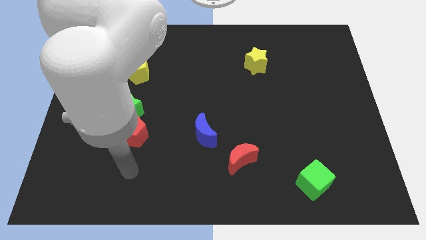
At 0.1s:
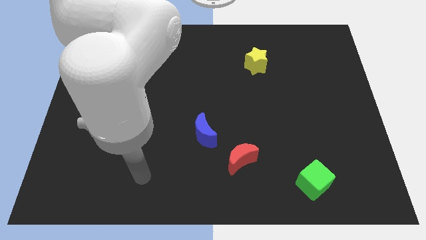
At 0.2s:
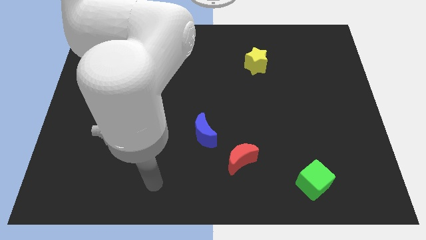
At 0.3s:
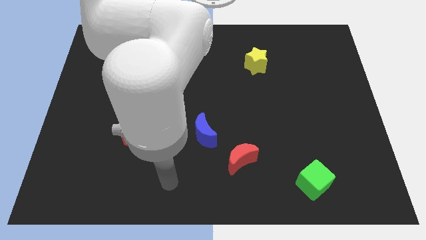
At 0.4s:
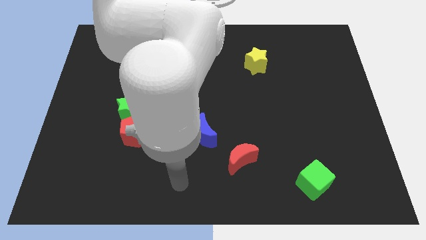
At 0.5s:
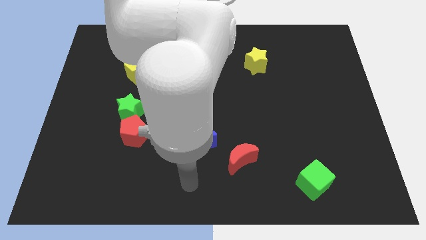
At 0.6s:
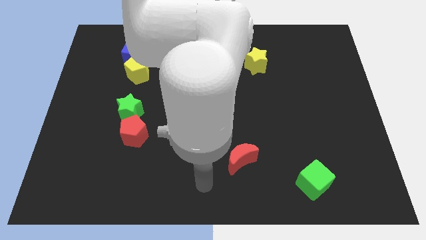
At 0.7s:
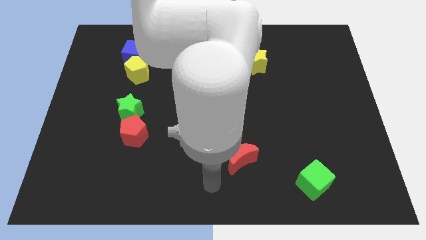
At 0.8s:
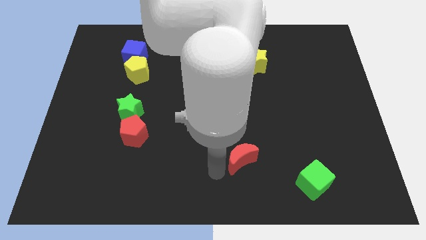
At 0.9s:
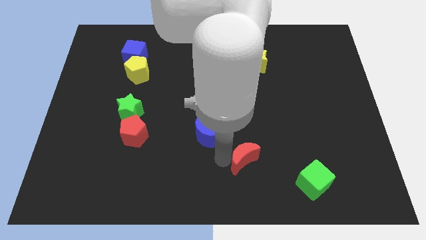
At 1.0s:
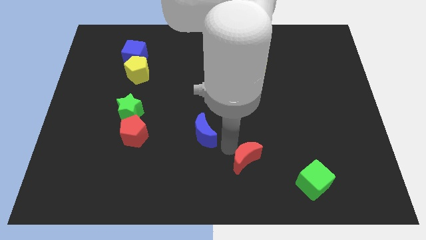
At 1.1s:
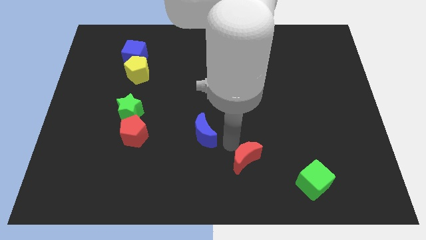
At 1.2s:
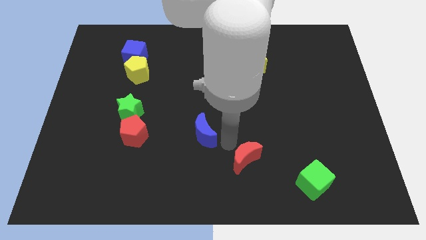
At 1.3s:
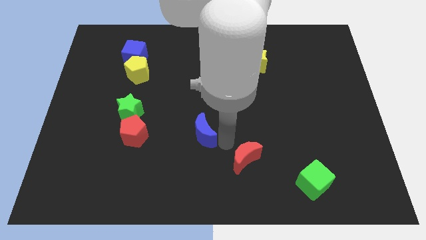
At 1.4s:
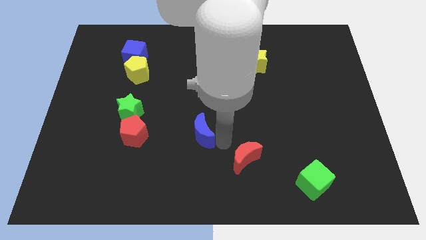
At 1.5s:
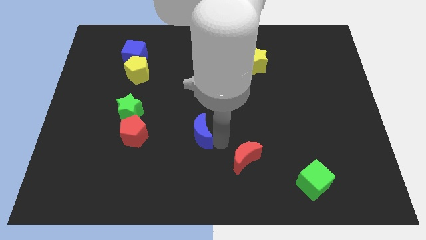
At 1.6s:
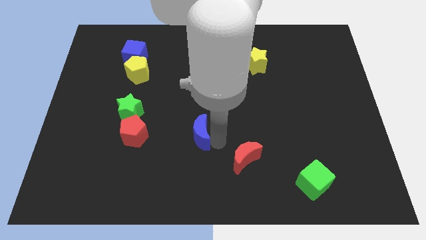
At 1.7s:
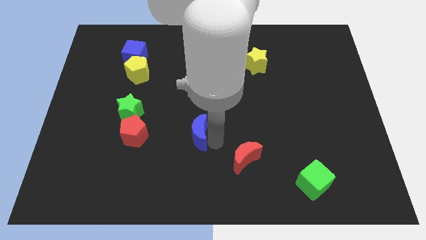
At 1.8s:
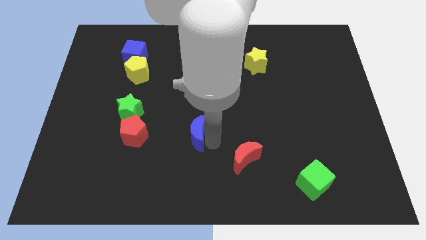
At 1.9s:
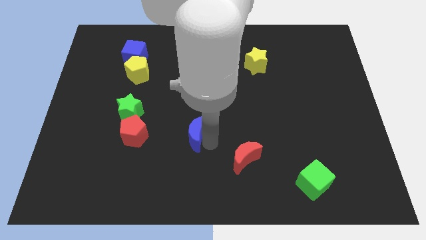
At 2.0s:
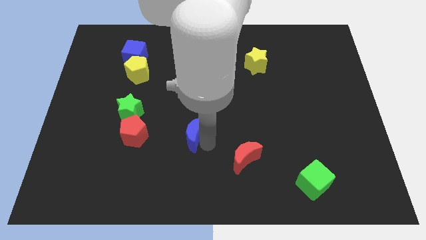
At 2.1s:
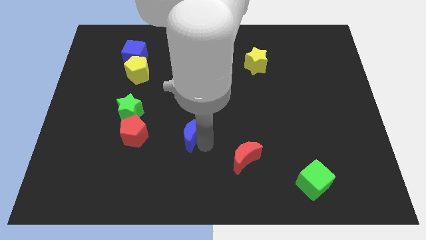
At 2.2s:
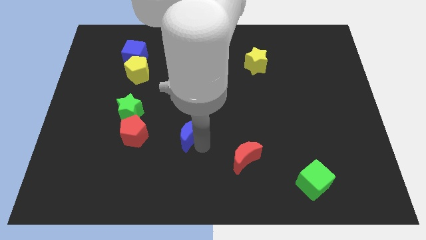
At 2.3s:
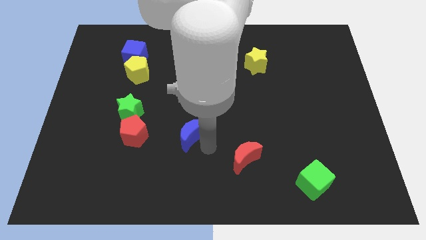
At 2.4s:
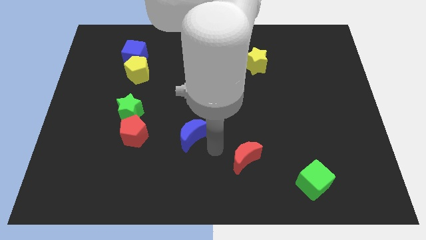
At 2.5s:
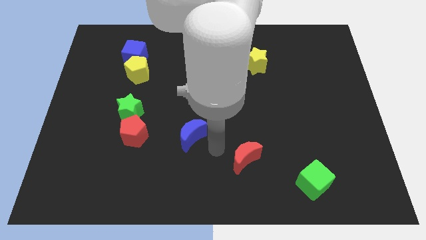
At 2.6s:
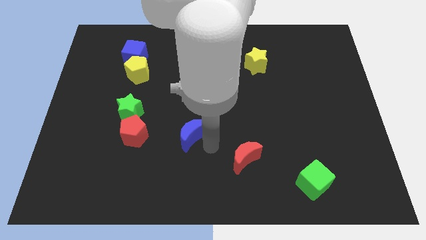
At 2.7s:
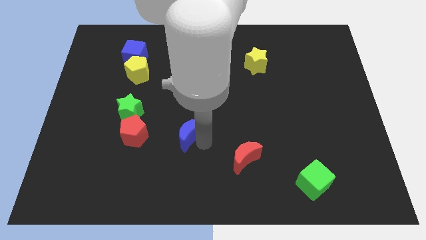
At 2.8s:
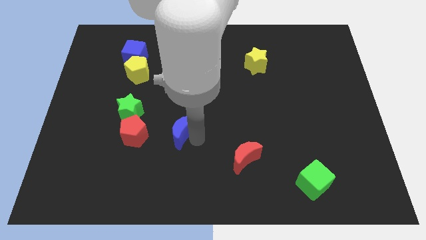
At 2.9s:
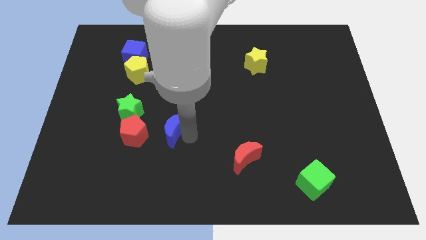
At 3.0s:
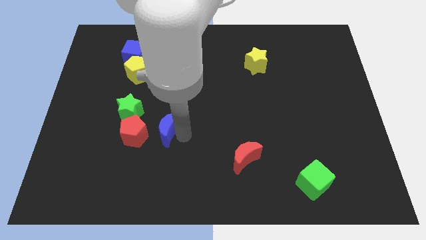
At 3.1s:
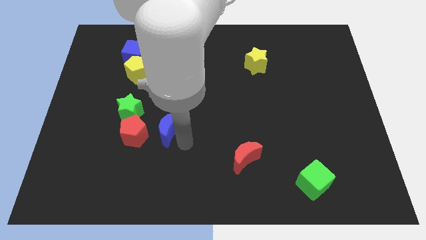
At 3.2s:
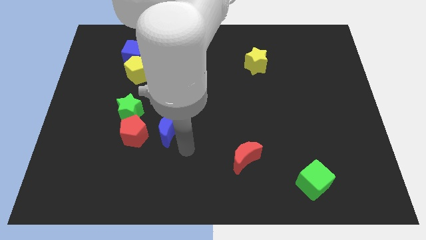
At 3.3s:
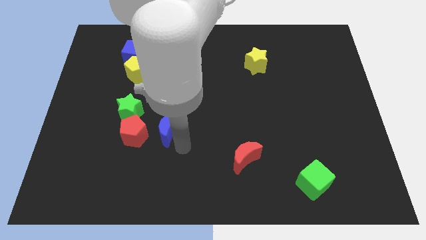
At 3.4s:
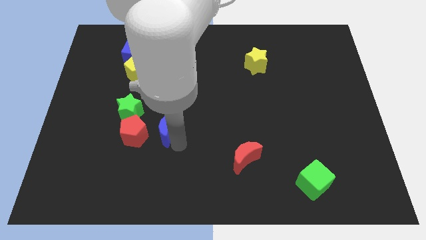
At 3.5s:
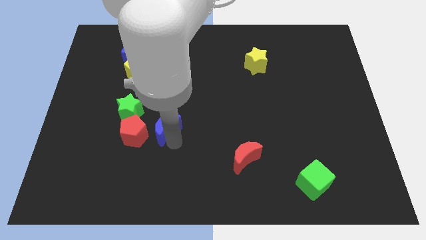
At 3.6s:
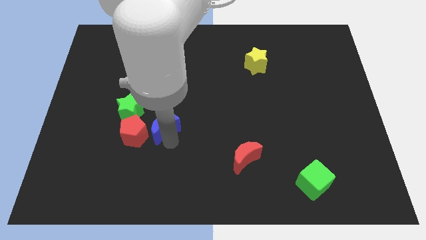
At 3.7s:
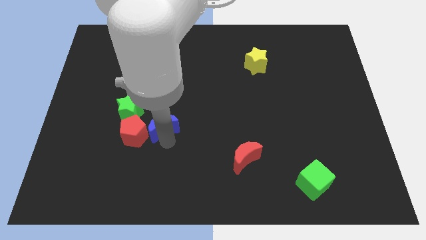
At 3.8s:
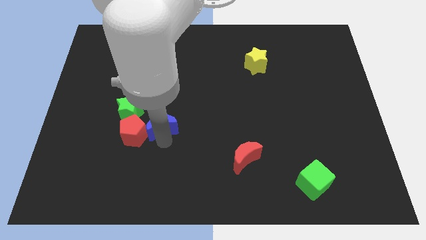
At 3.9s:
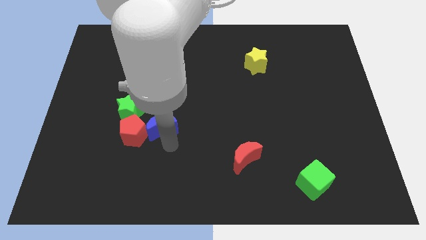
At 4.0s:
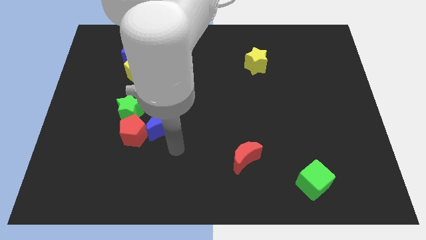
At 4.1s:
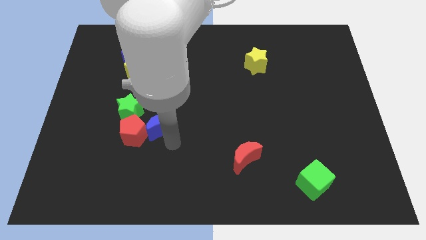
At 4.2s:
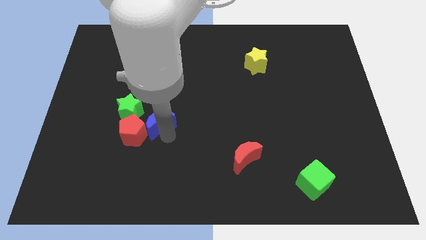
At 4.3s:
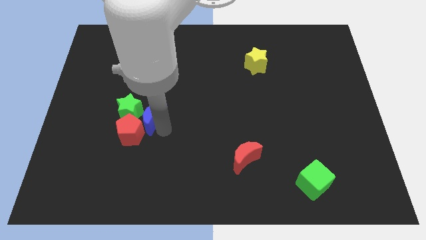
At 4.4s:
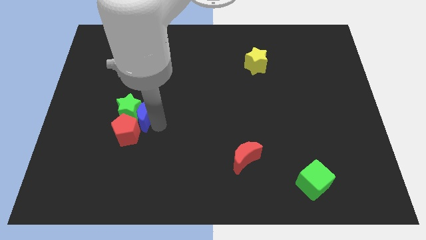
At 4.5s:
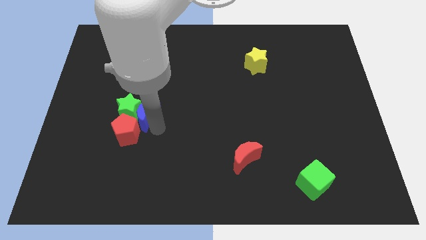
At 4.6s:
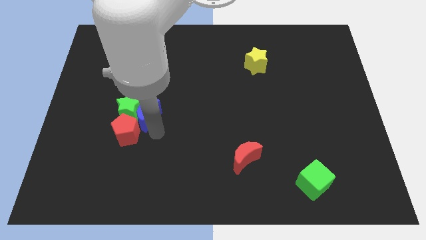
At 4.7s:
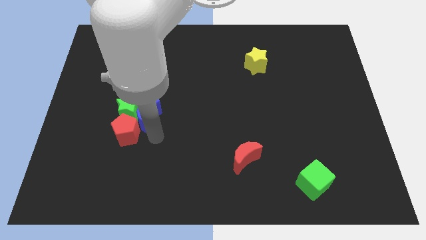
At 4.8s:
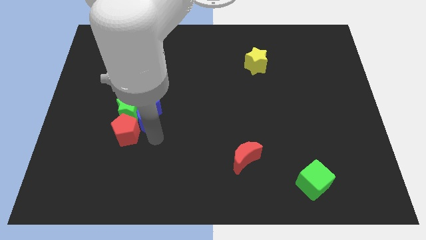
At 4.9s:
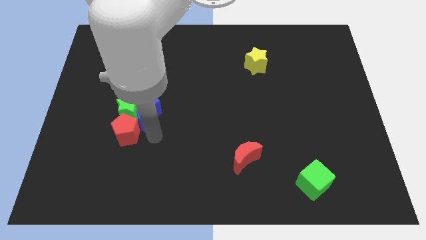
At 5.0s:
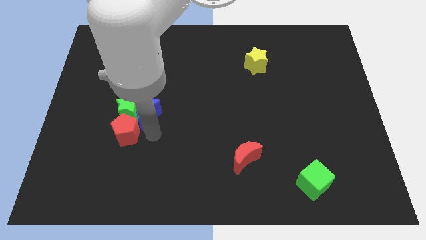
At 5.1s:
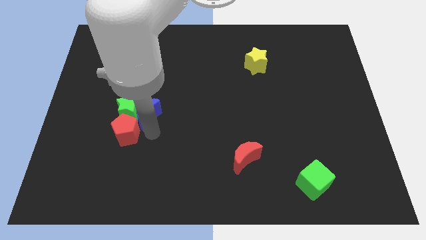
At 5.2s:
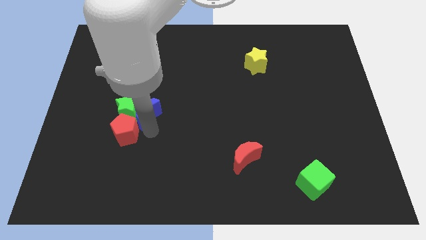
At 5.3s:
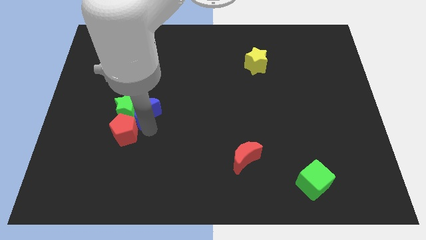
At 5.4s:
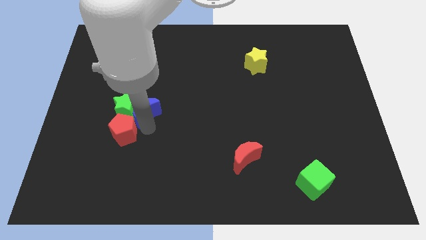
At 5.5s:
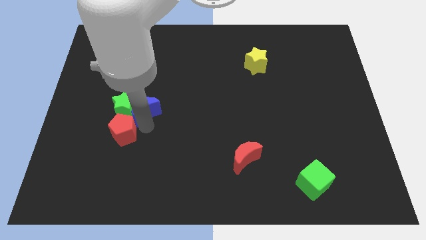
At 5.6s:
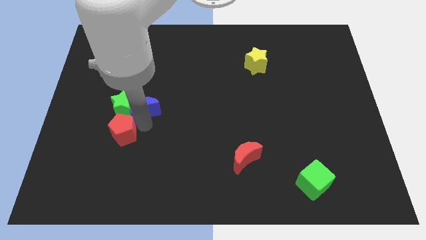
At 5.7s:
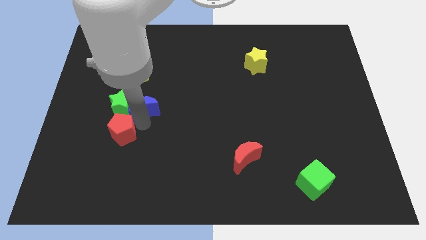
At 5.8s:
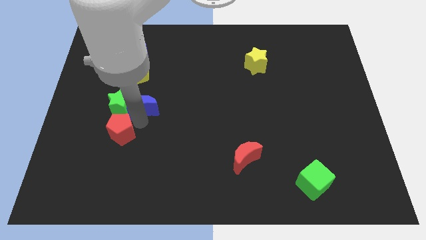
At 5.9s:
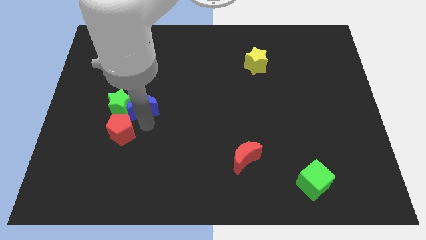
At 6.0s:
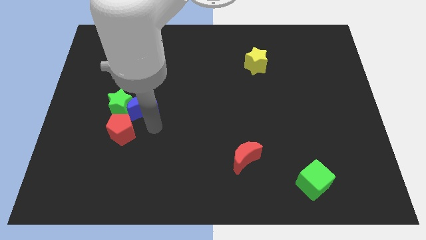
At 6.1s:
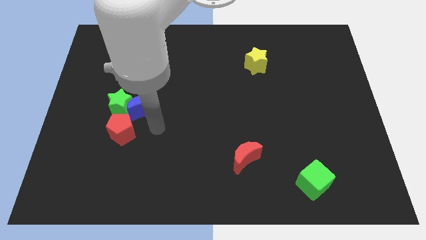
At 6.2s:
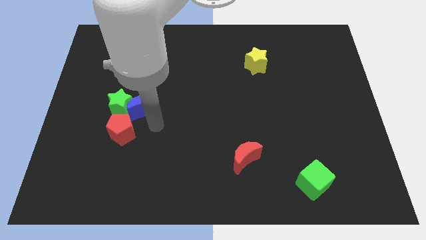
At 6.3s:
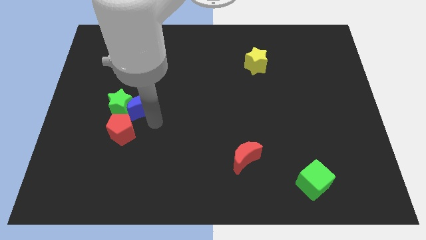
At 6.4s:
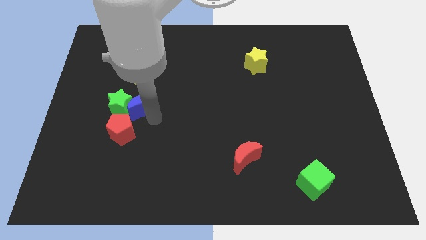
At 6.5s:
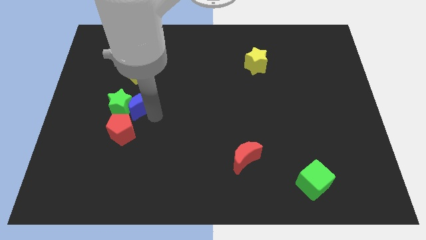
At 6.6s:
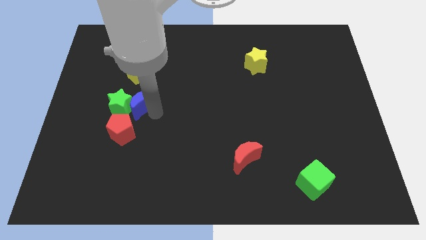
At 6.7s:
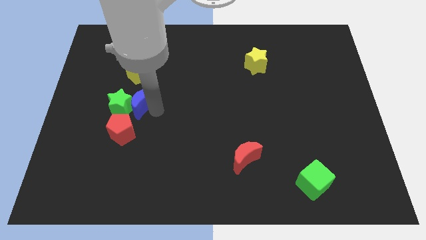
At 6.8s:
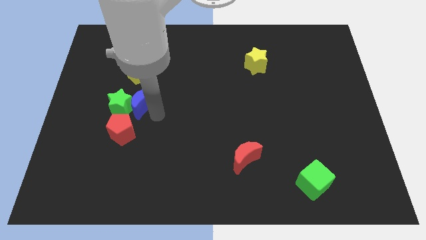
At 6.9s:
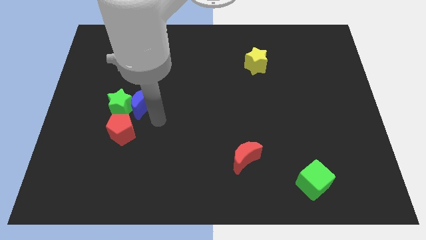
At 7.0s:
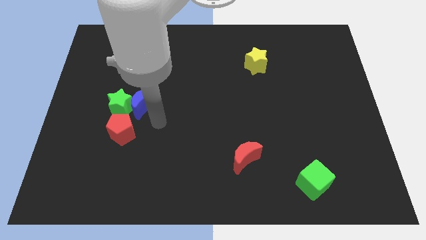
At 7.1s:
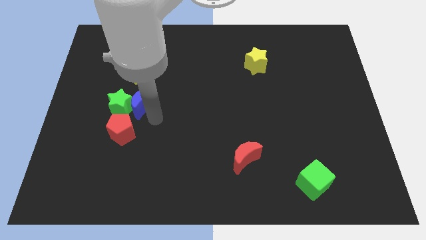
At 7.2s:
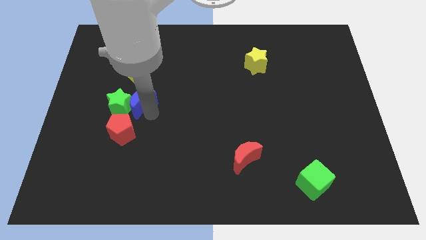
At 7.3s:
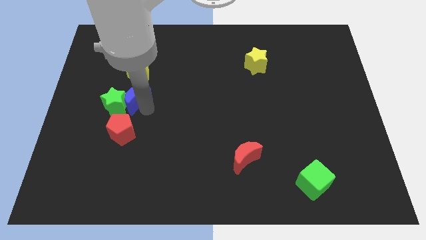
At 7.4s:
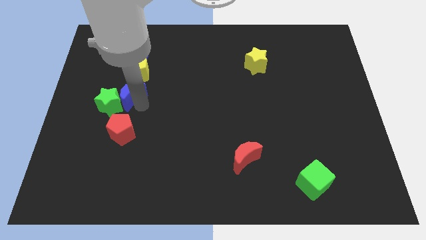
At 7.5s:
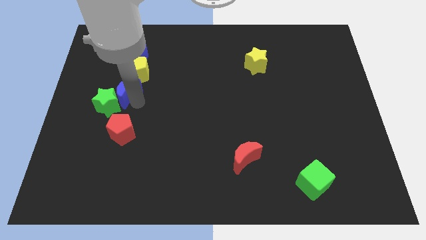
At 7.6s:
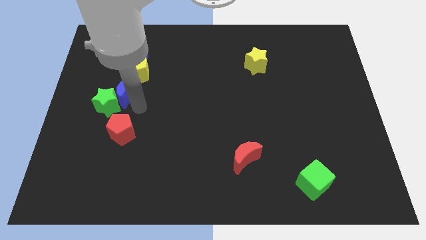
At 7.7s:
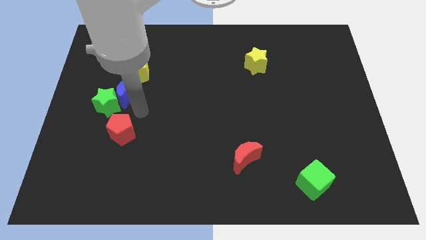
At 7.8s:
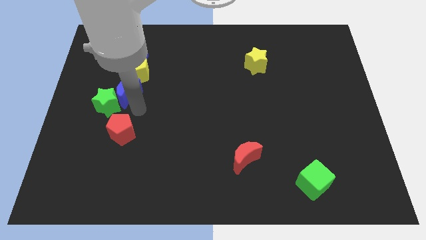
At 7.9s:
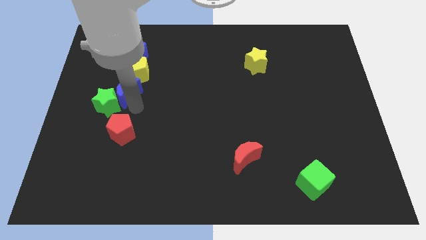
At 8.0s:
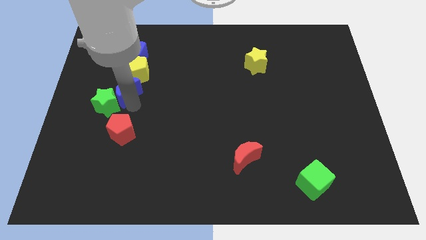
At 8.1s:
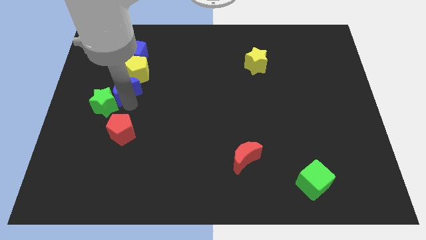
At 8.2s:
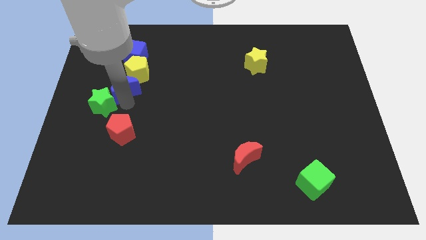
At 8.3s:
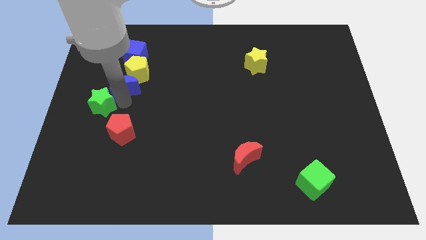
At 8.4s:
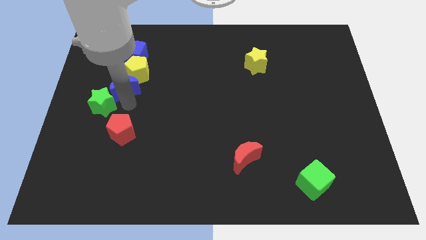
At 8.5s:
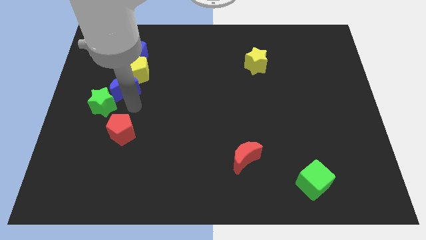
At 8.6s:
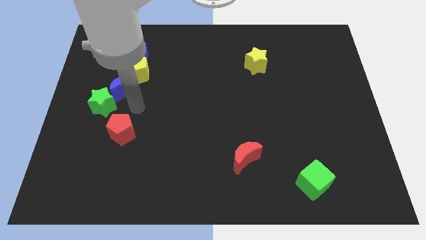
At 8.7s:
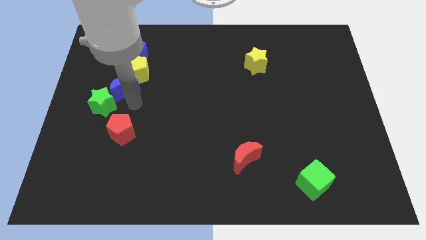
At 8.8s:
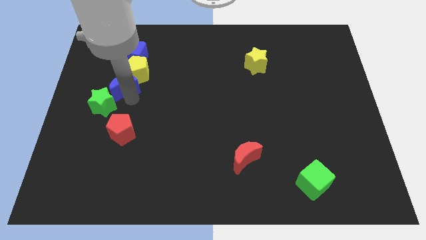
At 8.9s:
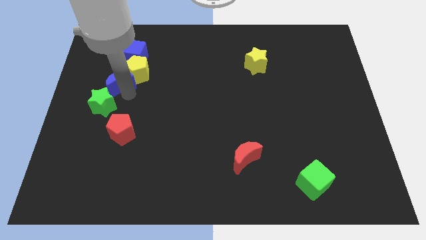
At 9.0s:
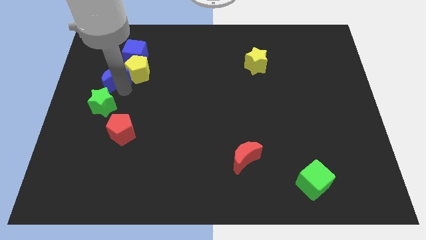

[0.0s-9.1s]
put the blue moon to the bottom left side of the blue cube
